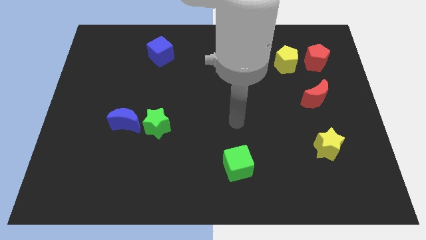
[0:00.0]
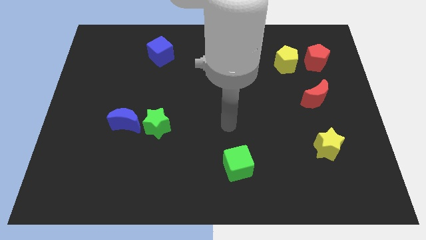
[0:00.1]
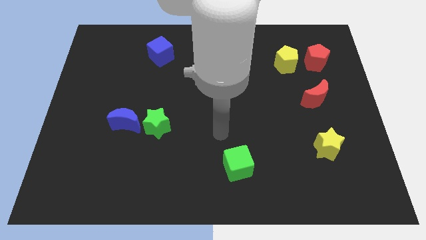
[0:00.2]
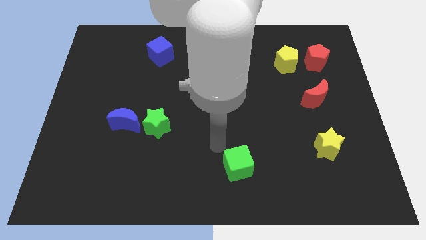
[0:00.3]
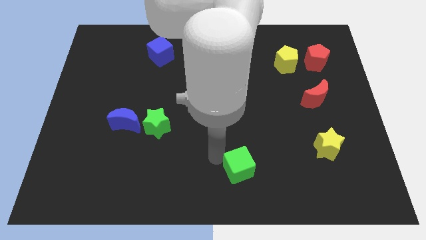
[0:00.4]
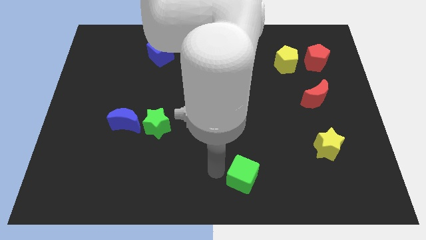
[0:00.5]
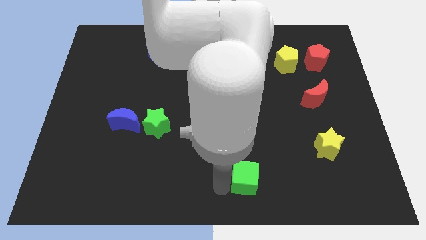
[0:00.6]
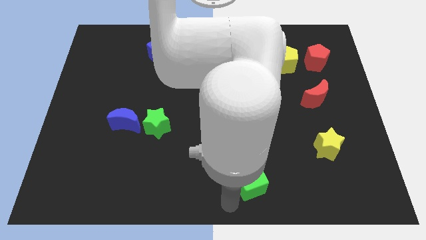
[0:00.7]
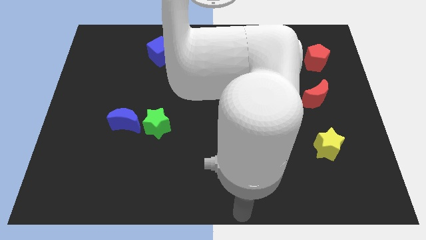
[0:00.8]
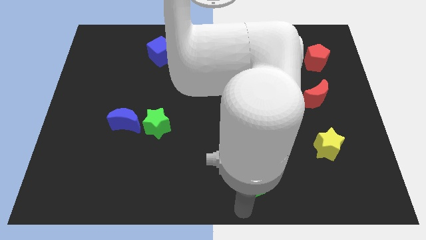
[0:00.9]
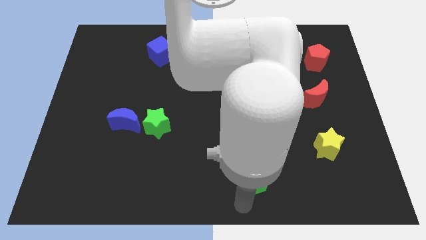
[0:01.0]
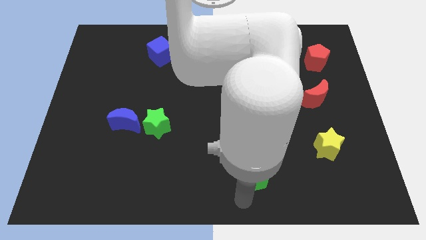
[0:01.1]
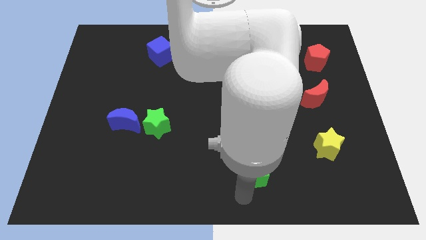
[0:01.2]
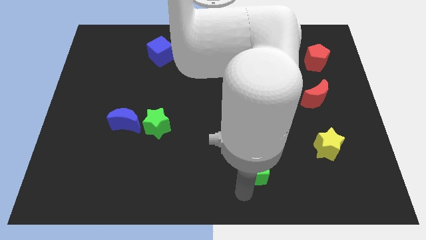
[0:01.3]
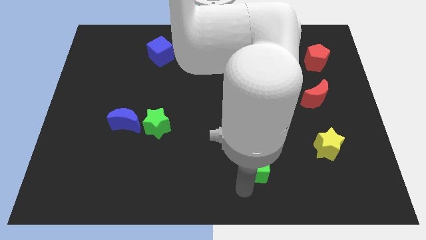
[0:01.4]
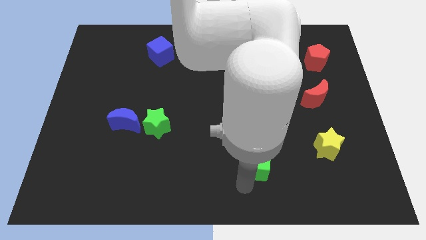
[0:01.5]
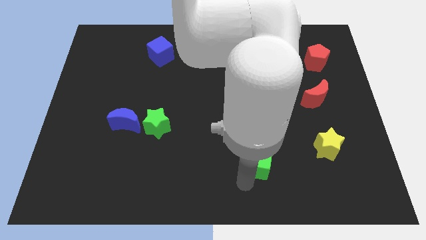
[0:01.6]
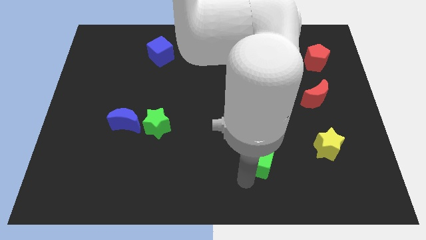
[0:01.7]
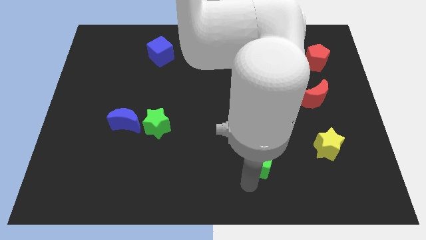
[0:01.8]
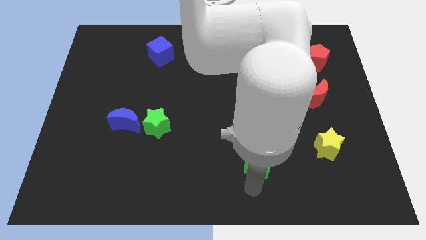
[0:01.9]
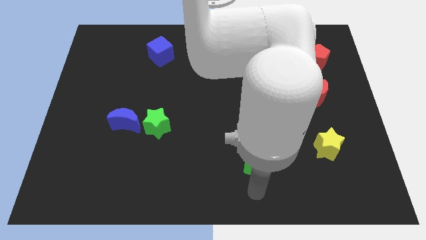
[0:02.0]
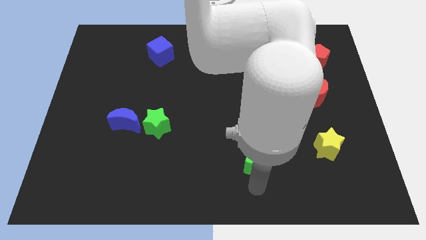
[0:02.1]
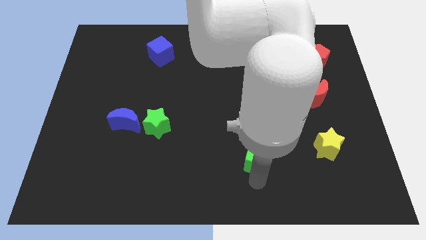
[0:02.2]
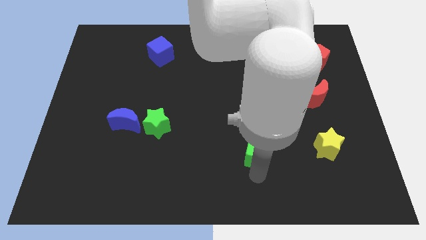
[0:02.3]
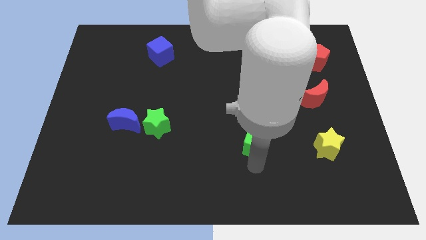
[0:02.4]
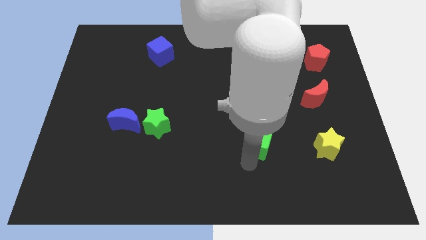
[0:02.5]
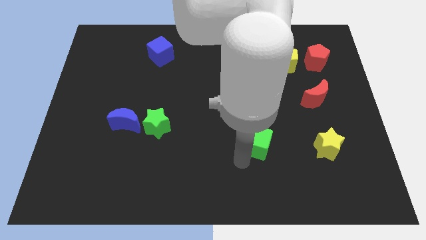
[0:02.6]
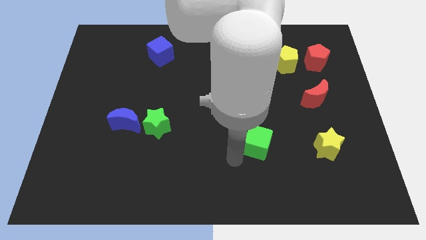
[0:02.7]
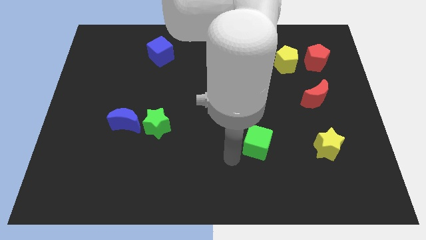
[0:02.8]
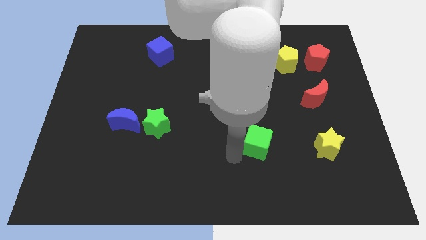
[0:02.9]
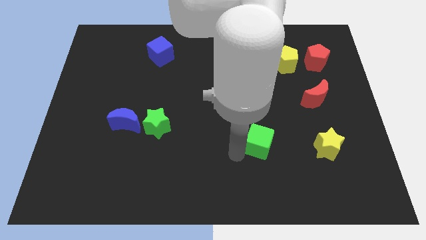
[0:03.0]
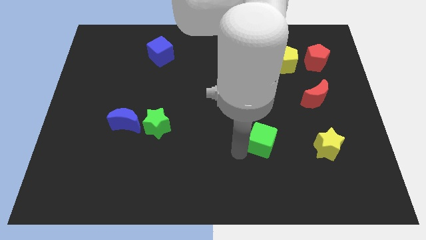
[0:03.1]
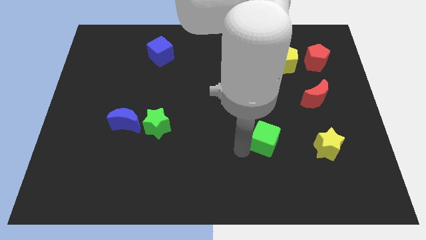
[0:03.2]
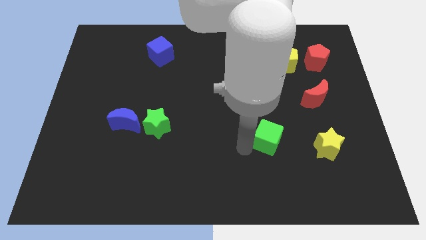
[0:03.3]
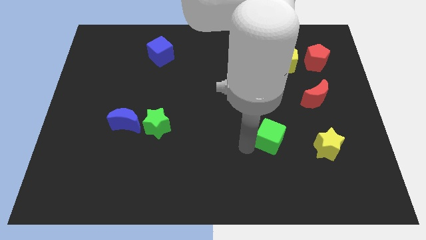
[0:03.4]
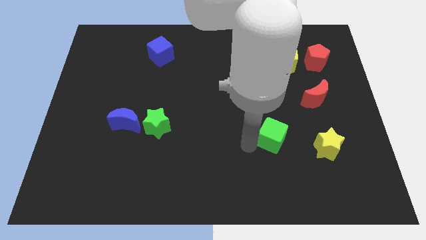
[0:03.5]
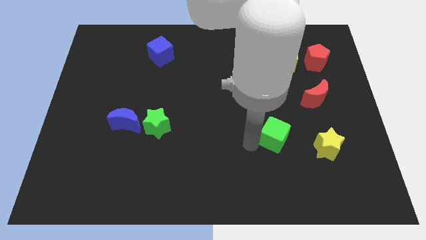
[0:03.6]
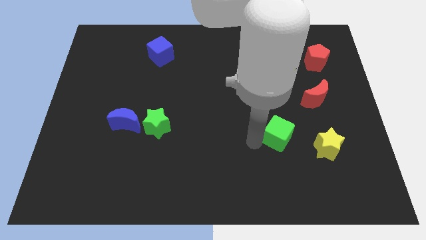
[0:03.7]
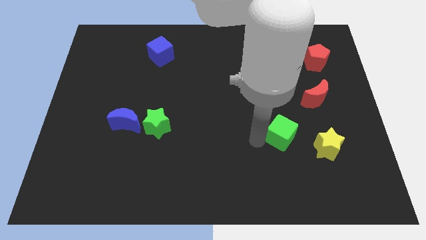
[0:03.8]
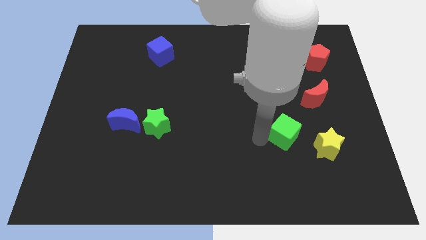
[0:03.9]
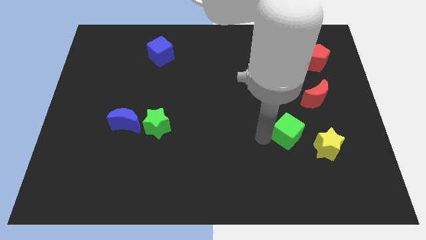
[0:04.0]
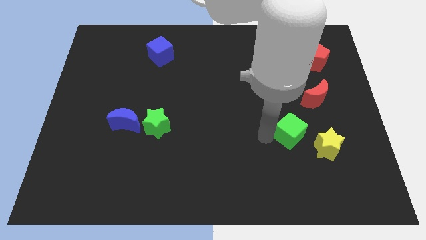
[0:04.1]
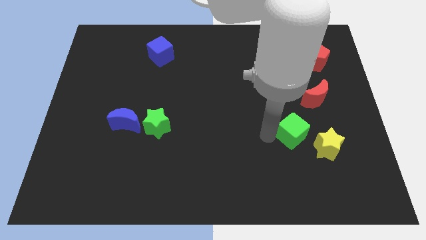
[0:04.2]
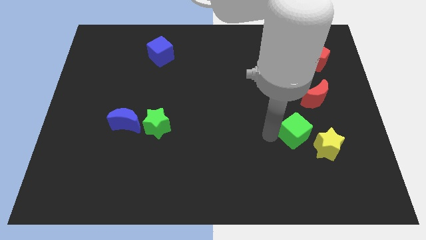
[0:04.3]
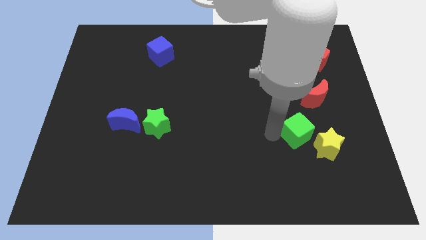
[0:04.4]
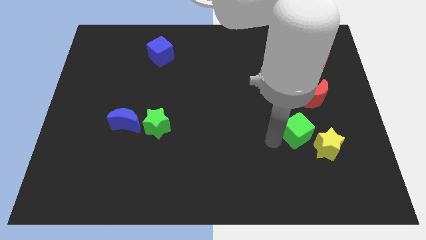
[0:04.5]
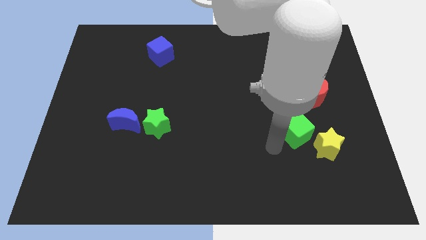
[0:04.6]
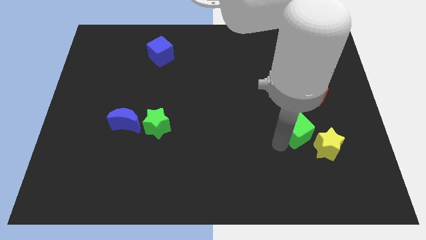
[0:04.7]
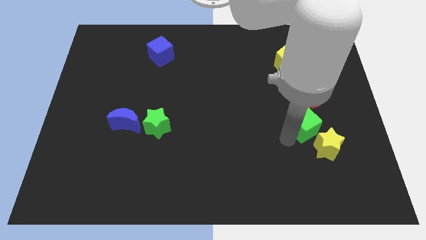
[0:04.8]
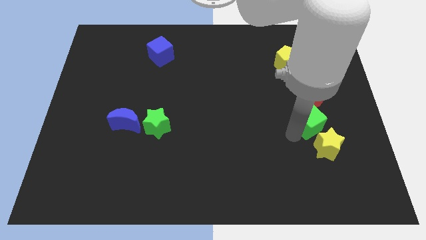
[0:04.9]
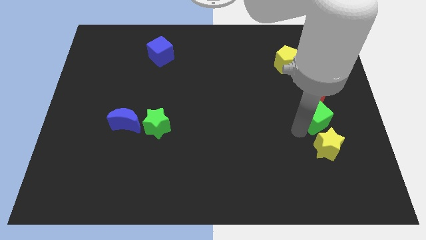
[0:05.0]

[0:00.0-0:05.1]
slide the green cube diagonally up and right

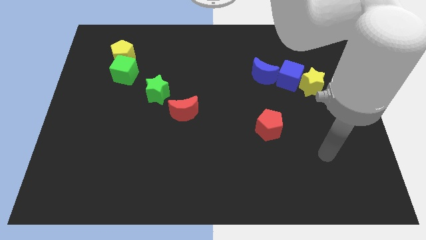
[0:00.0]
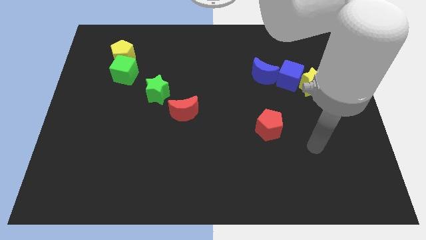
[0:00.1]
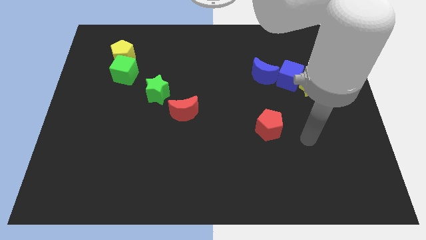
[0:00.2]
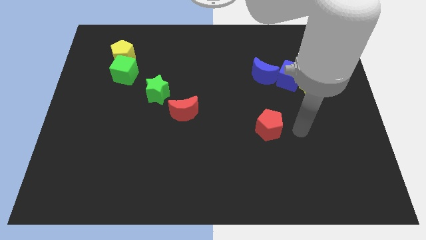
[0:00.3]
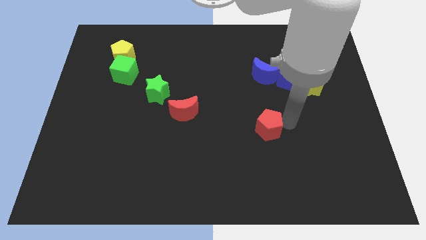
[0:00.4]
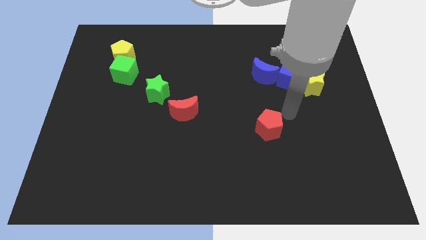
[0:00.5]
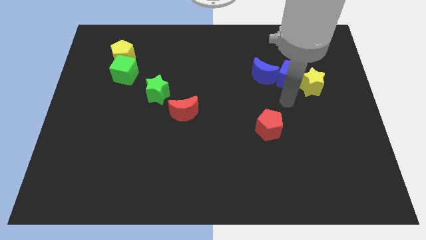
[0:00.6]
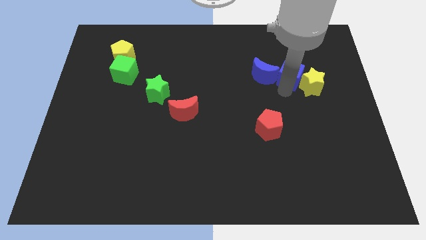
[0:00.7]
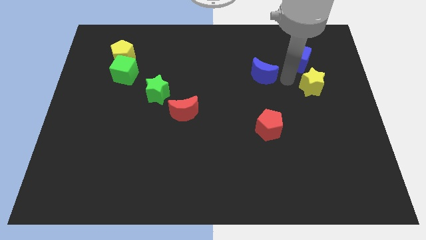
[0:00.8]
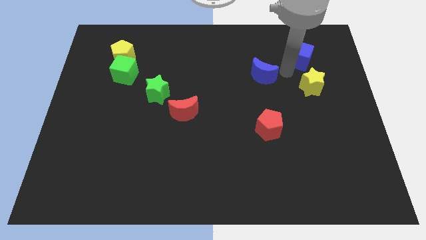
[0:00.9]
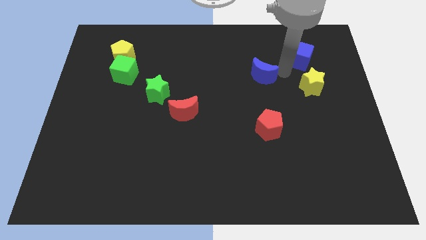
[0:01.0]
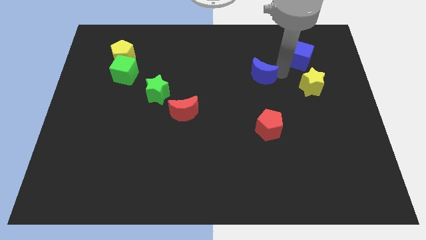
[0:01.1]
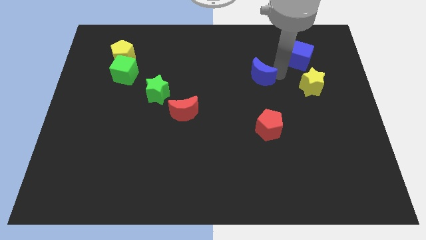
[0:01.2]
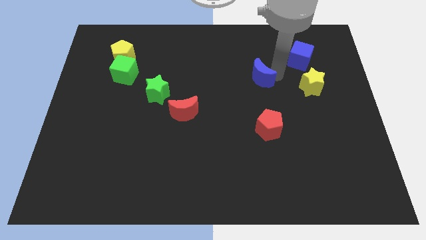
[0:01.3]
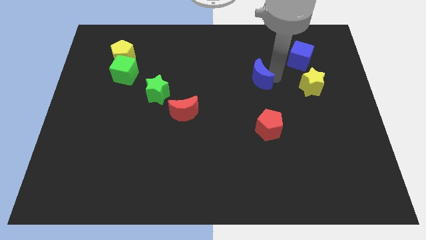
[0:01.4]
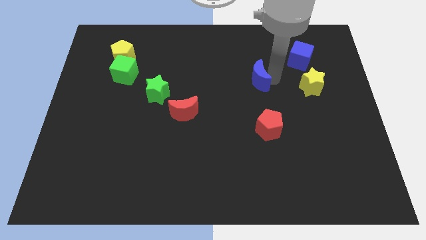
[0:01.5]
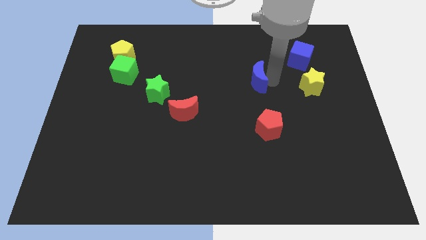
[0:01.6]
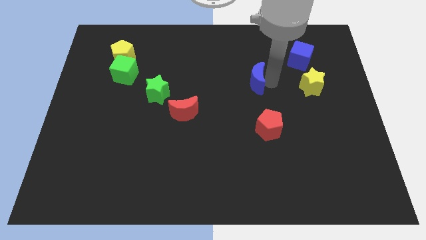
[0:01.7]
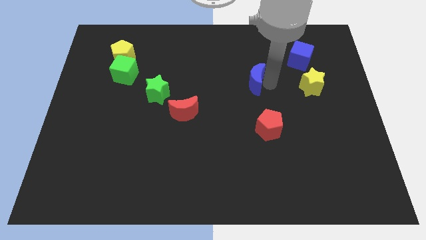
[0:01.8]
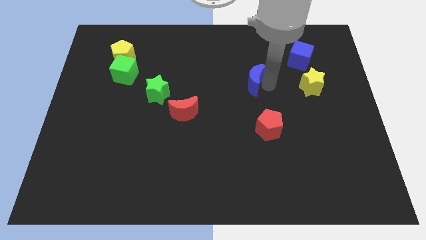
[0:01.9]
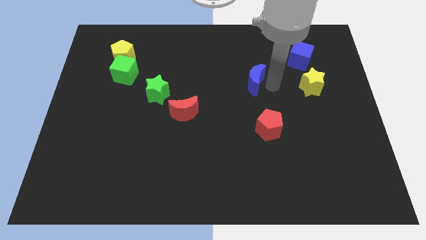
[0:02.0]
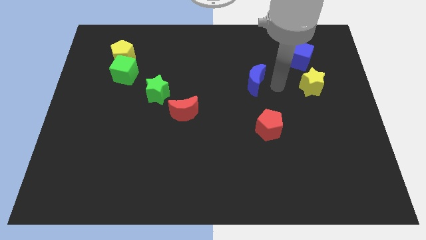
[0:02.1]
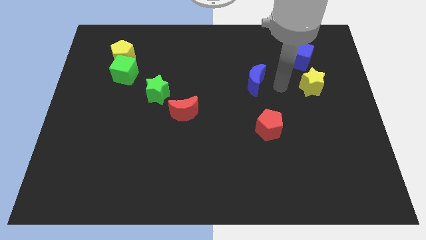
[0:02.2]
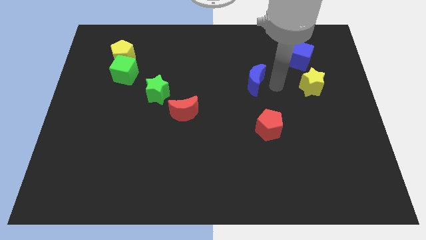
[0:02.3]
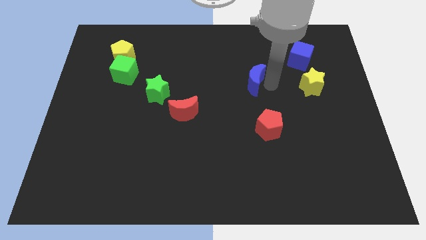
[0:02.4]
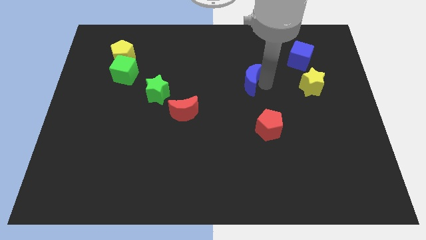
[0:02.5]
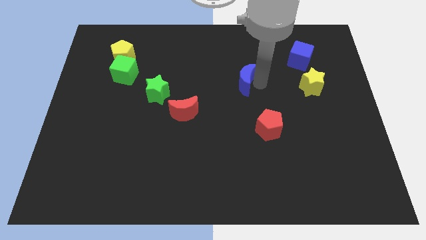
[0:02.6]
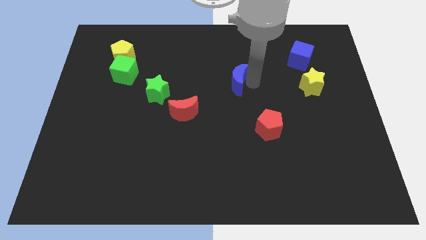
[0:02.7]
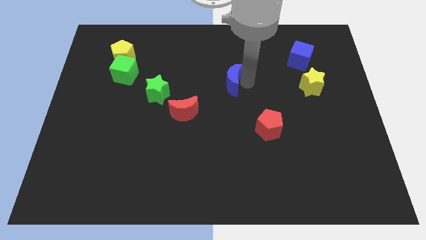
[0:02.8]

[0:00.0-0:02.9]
push the blue moon somewhat to the left
